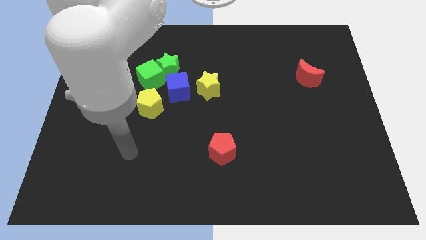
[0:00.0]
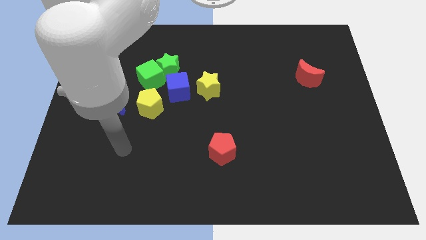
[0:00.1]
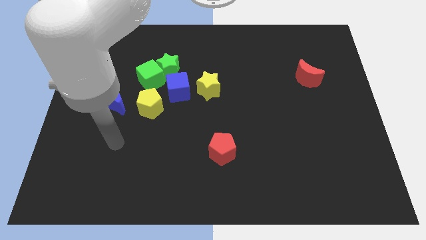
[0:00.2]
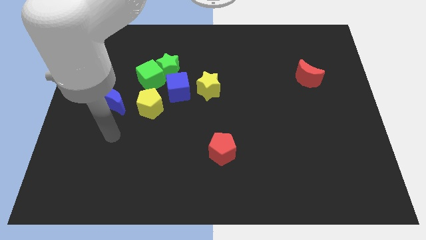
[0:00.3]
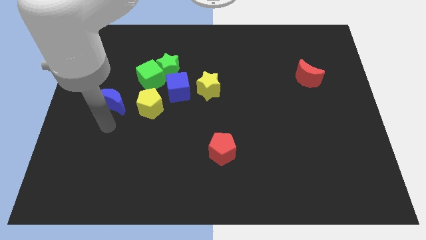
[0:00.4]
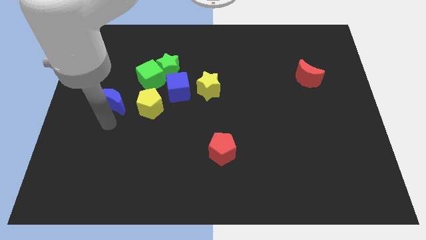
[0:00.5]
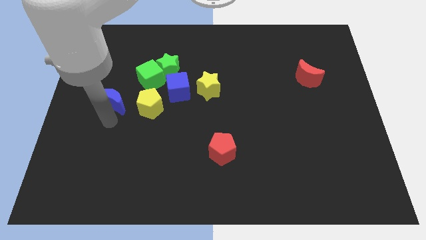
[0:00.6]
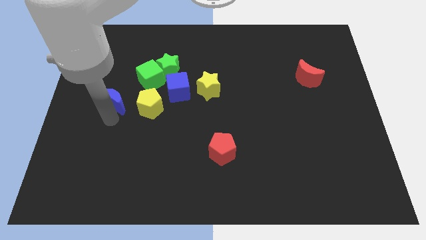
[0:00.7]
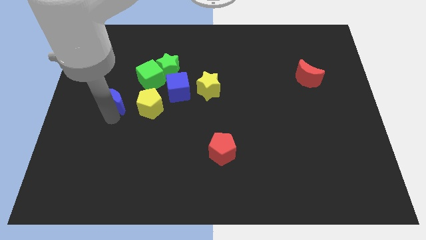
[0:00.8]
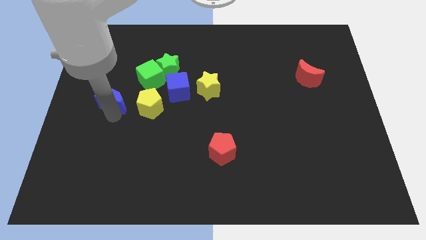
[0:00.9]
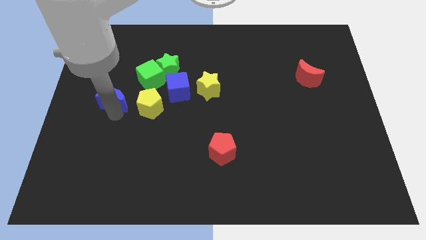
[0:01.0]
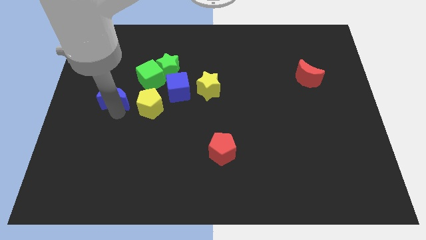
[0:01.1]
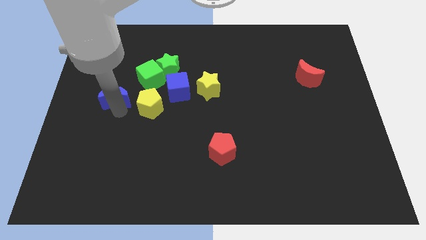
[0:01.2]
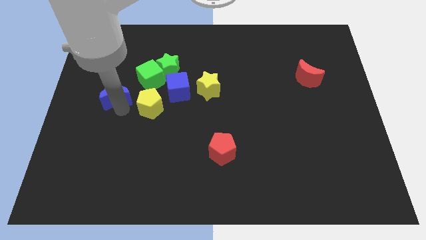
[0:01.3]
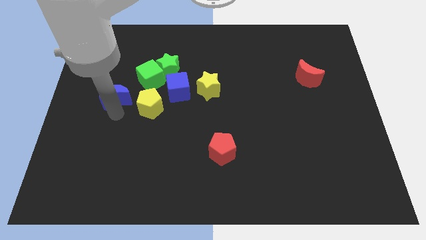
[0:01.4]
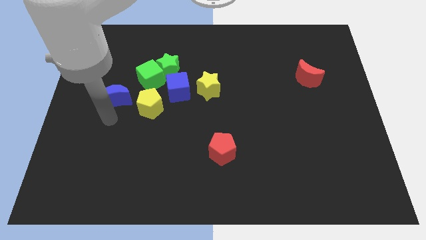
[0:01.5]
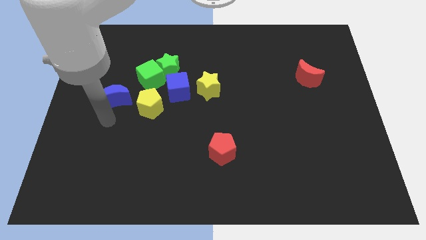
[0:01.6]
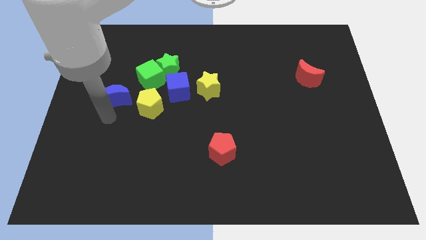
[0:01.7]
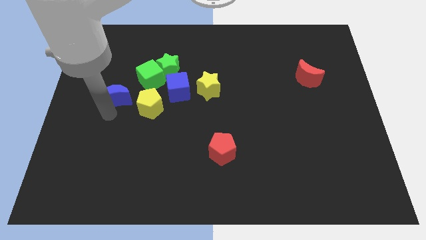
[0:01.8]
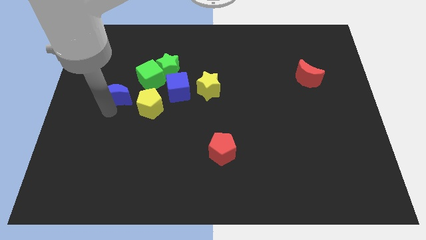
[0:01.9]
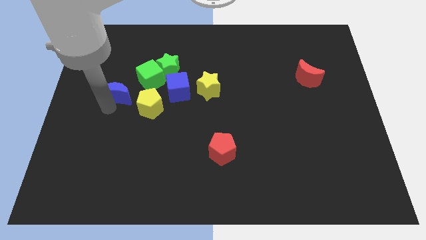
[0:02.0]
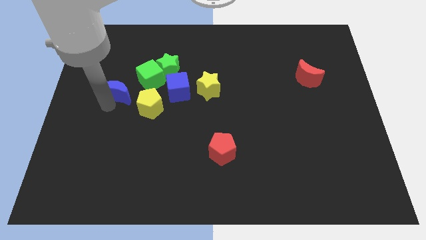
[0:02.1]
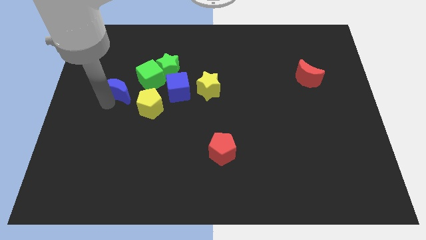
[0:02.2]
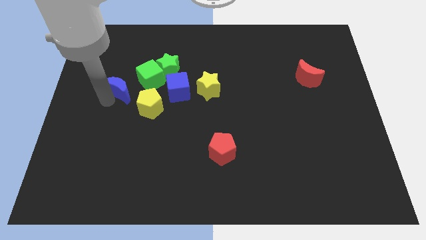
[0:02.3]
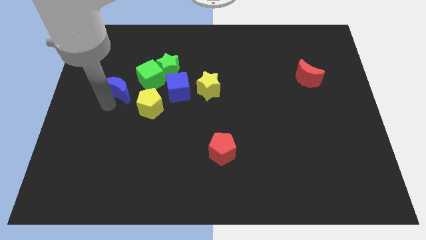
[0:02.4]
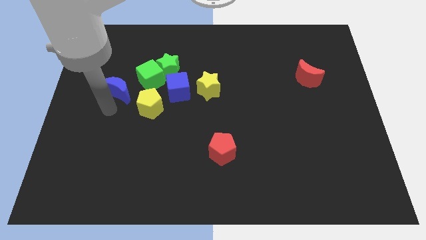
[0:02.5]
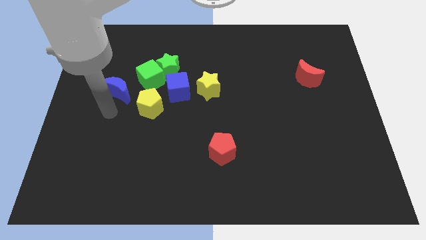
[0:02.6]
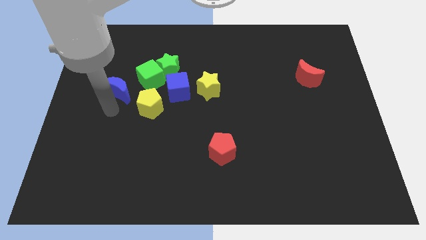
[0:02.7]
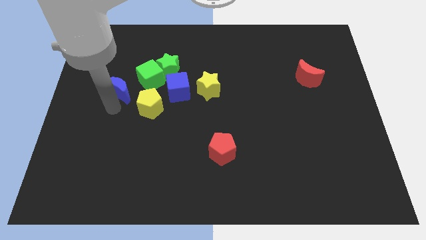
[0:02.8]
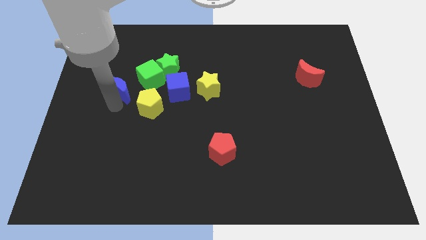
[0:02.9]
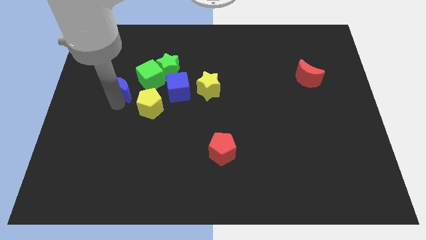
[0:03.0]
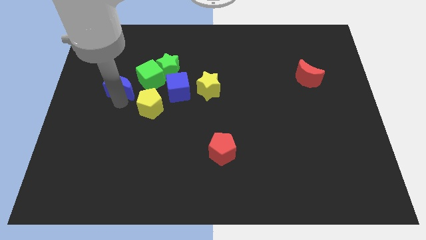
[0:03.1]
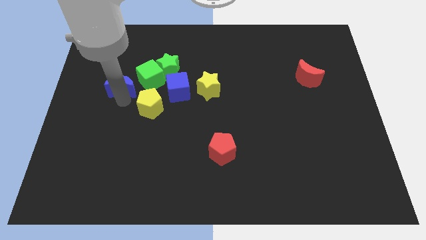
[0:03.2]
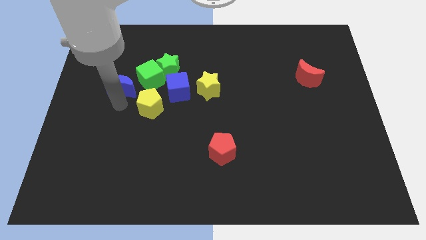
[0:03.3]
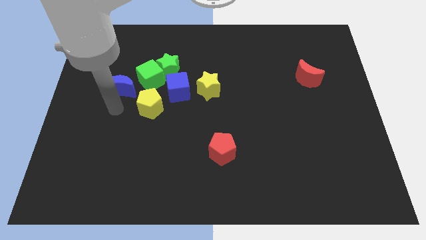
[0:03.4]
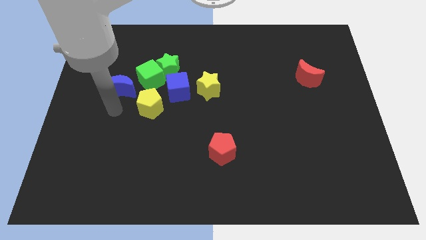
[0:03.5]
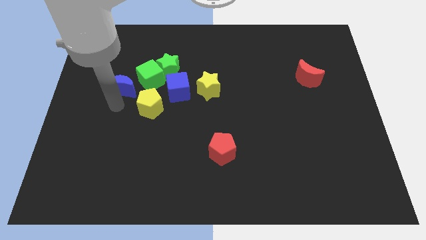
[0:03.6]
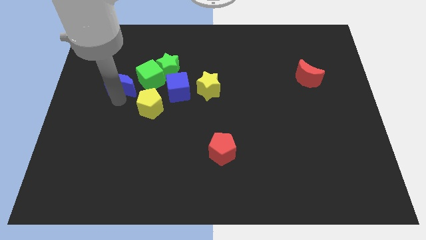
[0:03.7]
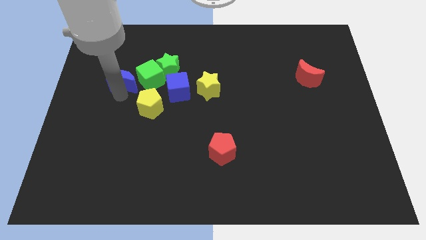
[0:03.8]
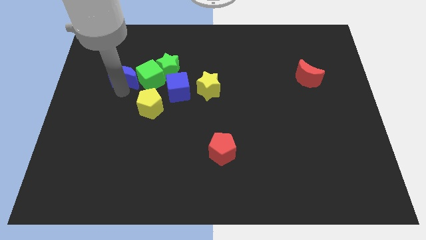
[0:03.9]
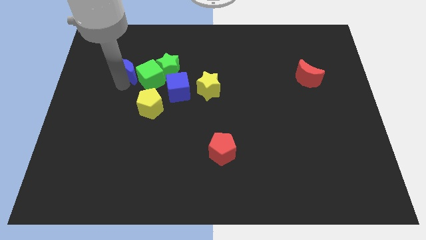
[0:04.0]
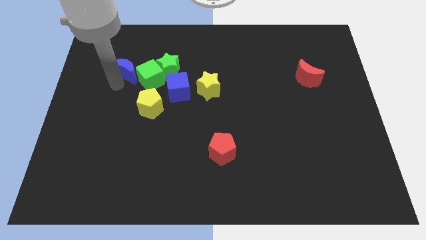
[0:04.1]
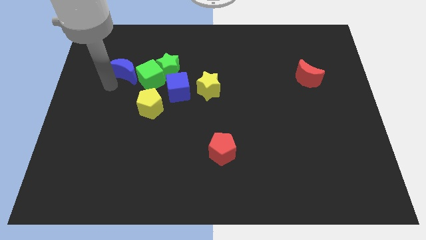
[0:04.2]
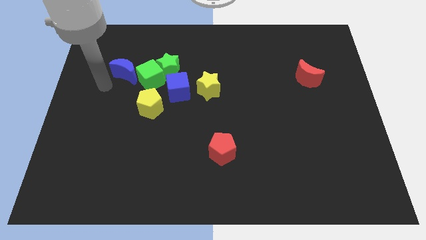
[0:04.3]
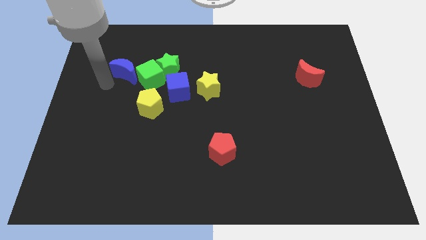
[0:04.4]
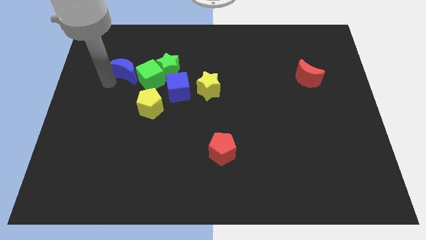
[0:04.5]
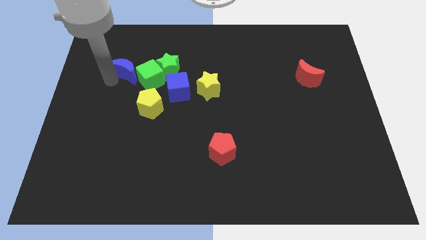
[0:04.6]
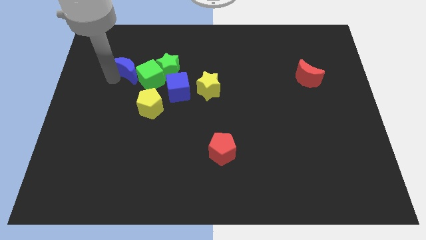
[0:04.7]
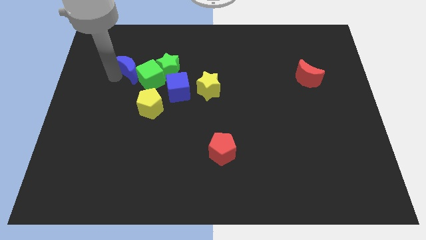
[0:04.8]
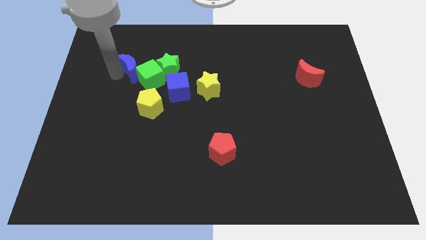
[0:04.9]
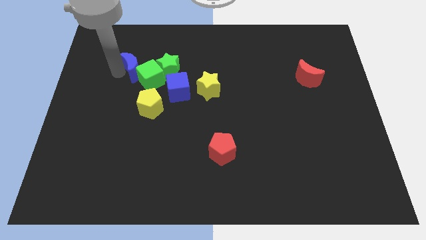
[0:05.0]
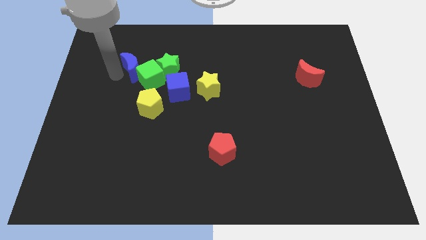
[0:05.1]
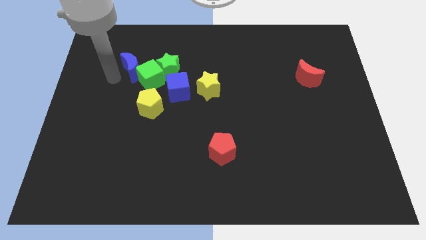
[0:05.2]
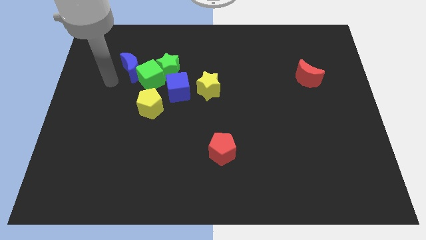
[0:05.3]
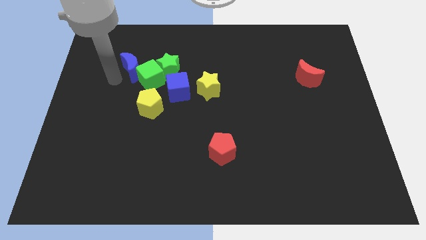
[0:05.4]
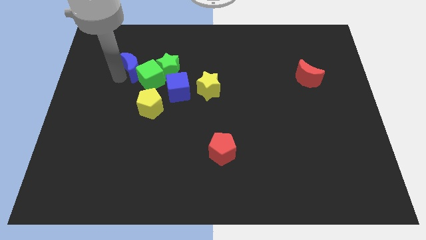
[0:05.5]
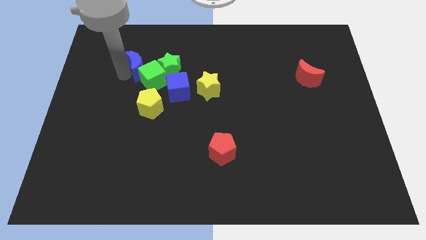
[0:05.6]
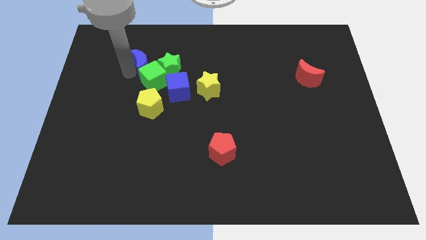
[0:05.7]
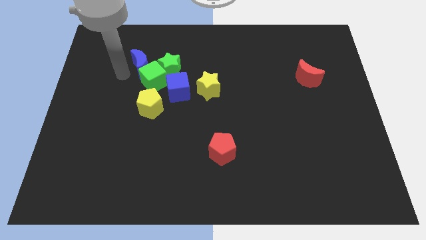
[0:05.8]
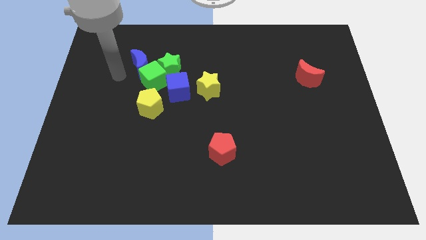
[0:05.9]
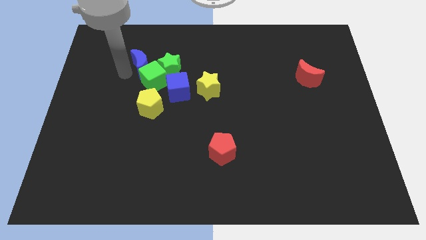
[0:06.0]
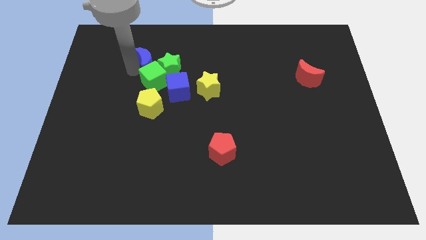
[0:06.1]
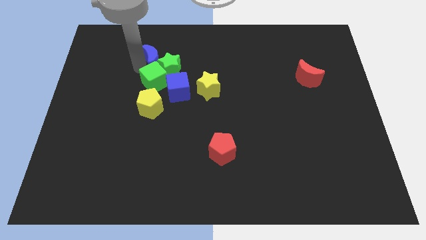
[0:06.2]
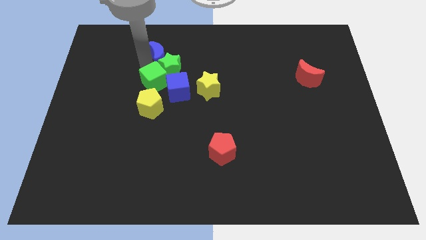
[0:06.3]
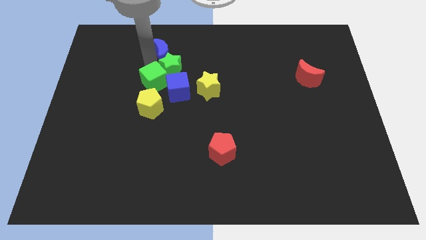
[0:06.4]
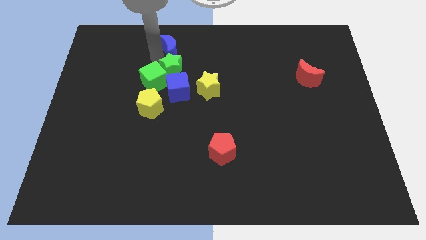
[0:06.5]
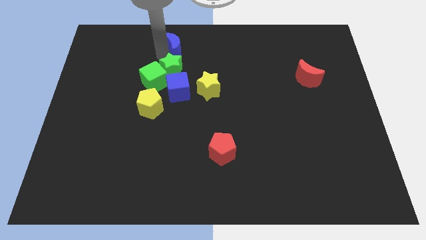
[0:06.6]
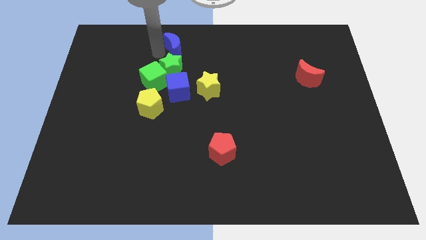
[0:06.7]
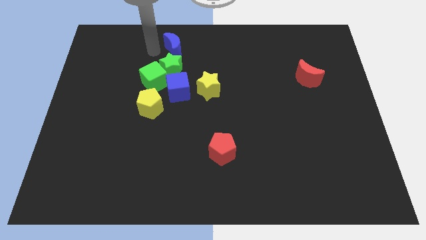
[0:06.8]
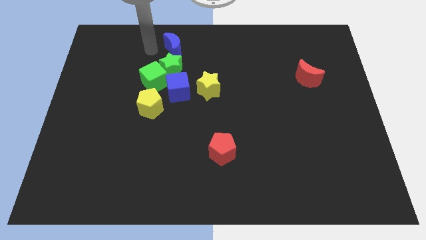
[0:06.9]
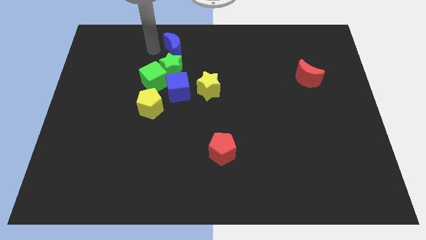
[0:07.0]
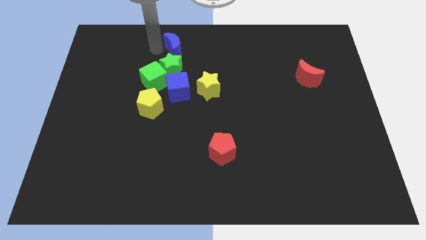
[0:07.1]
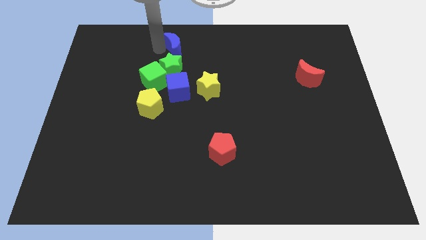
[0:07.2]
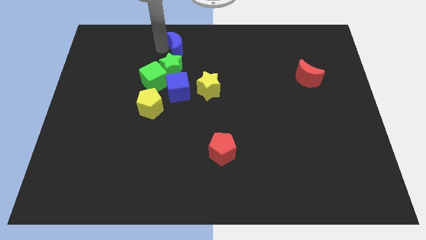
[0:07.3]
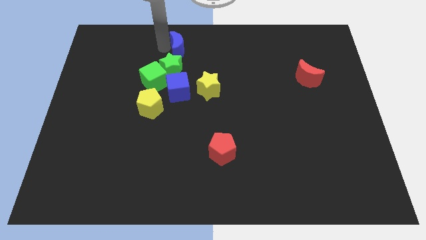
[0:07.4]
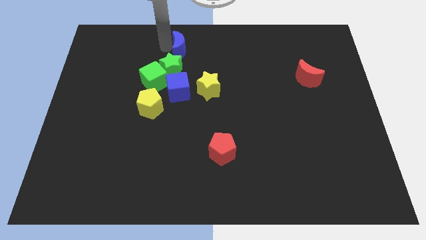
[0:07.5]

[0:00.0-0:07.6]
push the blue moon to the top
